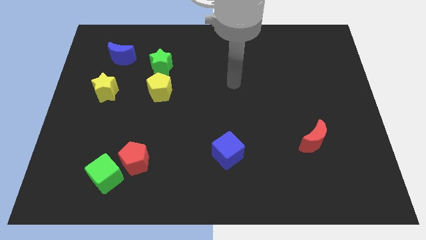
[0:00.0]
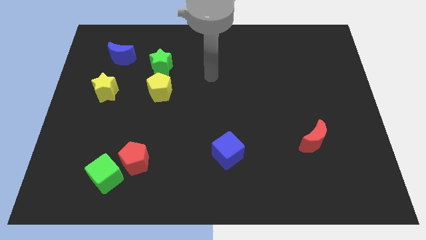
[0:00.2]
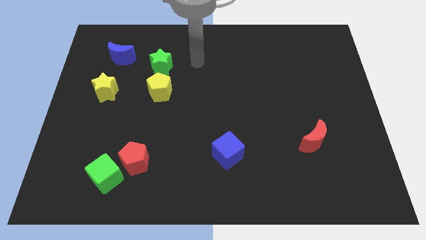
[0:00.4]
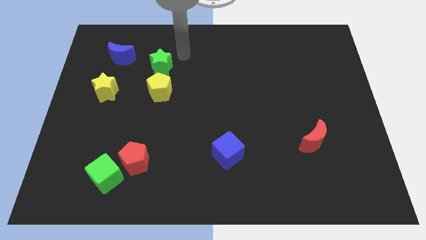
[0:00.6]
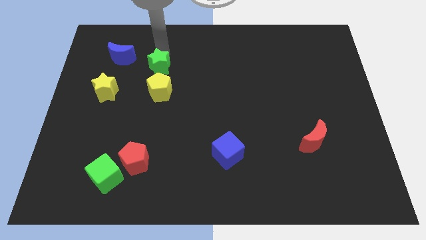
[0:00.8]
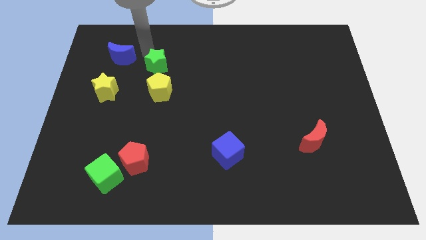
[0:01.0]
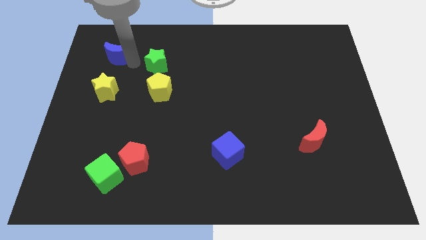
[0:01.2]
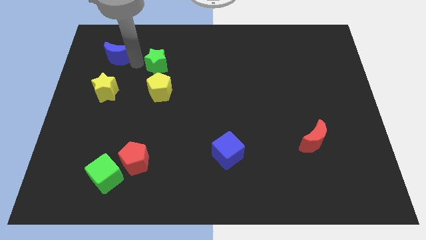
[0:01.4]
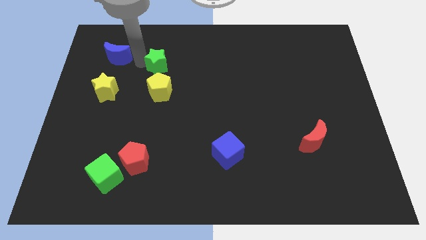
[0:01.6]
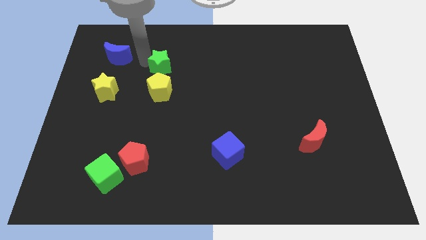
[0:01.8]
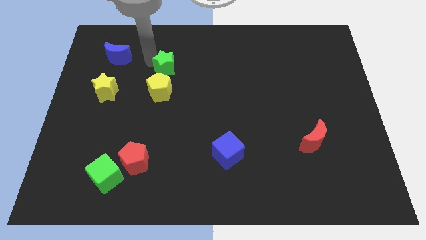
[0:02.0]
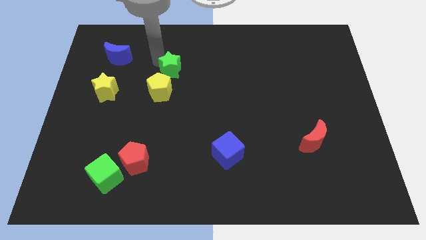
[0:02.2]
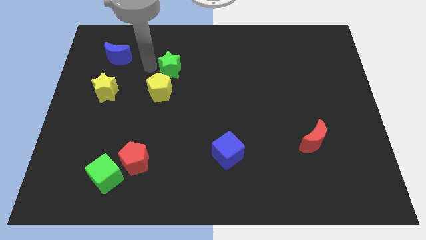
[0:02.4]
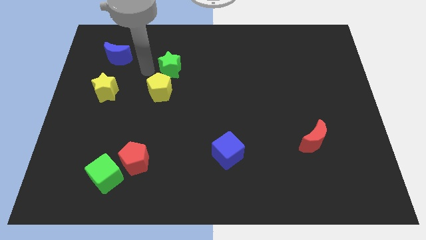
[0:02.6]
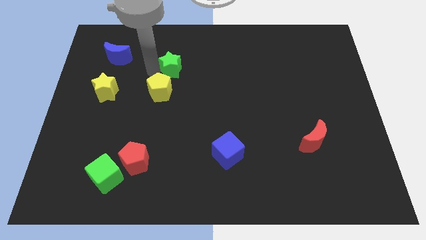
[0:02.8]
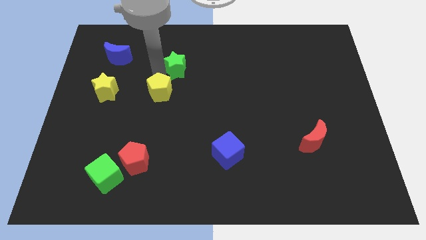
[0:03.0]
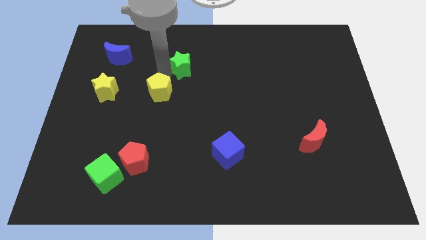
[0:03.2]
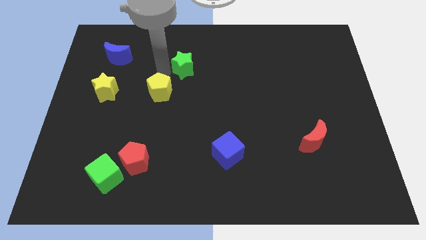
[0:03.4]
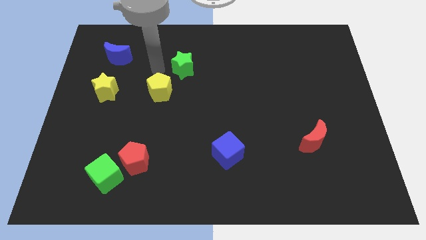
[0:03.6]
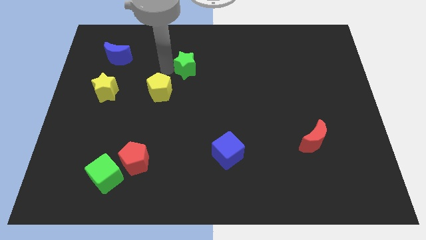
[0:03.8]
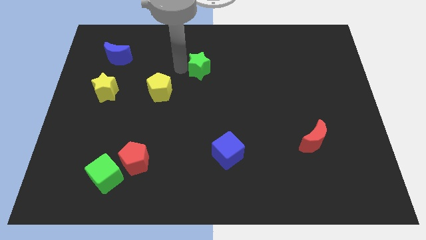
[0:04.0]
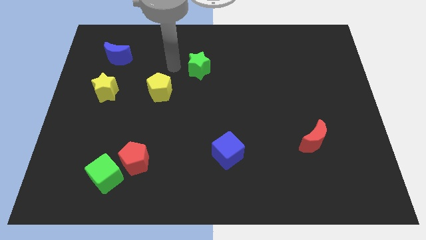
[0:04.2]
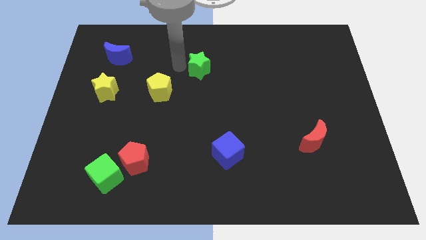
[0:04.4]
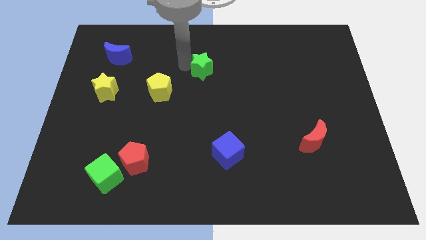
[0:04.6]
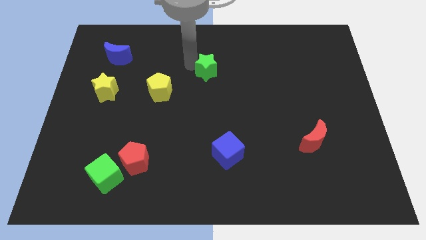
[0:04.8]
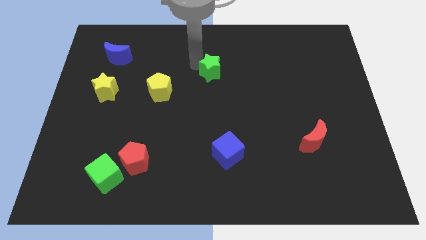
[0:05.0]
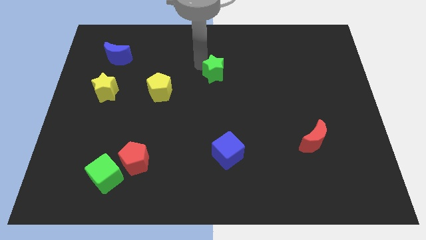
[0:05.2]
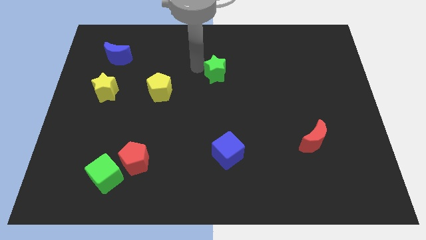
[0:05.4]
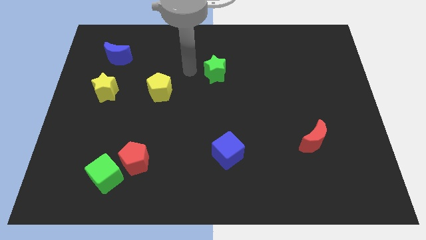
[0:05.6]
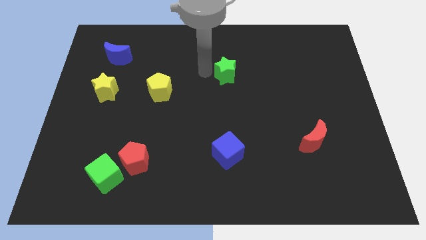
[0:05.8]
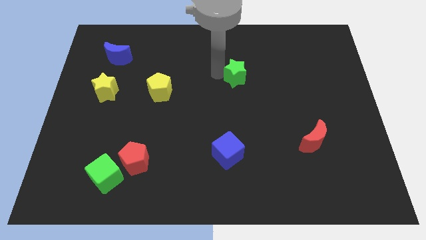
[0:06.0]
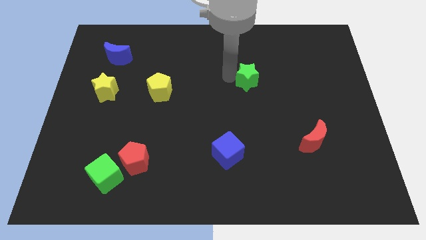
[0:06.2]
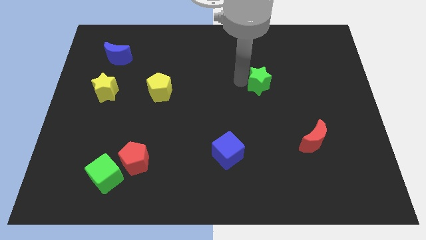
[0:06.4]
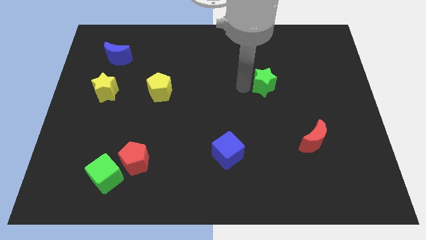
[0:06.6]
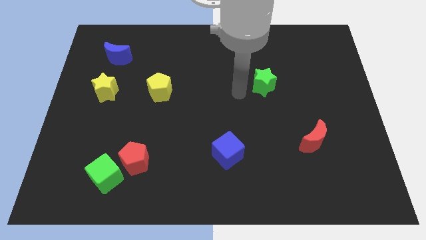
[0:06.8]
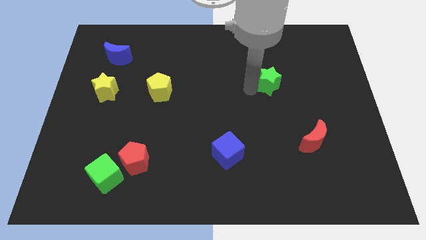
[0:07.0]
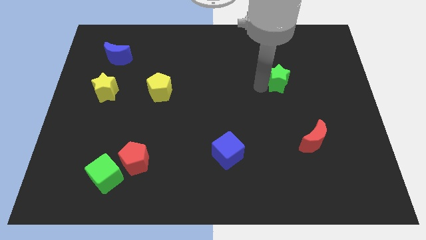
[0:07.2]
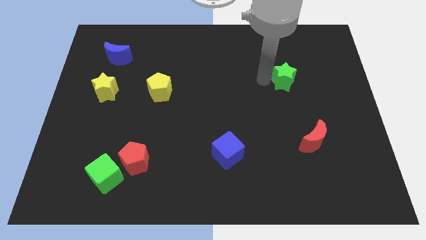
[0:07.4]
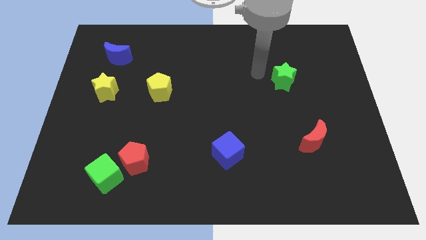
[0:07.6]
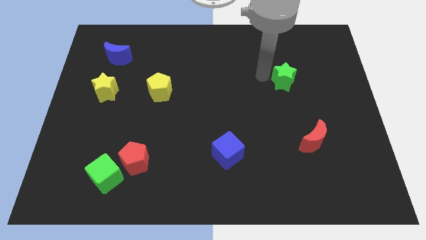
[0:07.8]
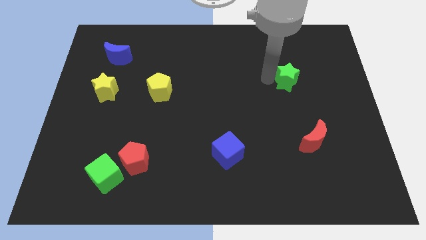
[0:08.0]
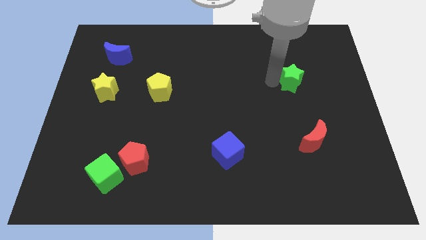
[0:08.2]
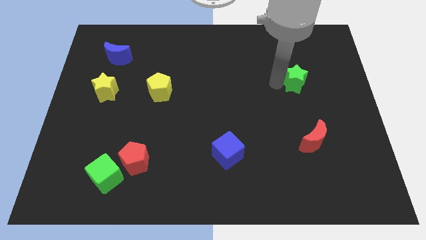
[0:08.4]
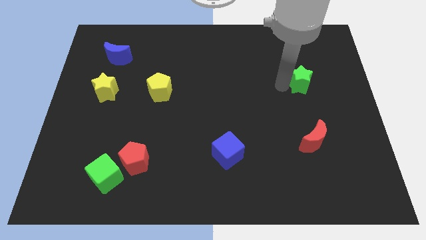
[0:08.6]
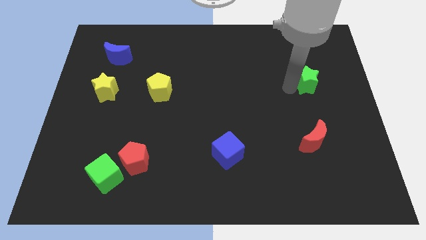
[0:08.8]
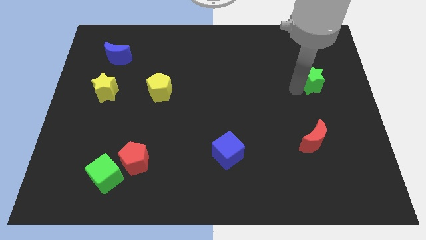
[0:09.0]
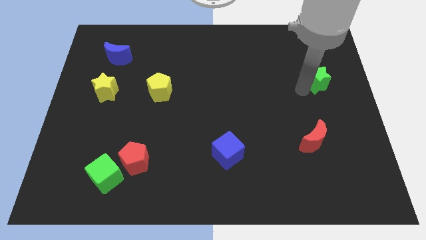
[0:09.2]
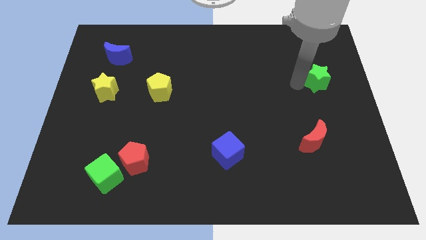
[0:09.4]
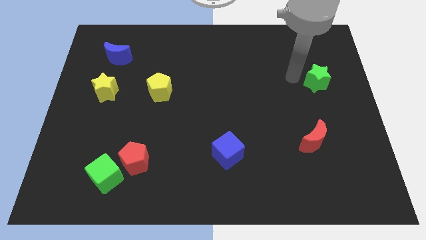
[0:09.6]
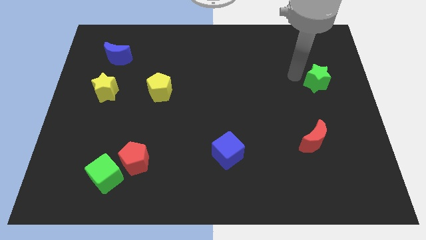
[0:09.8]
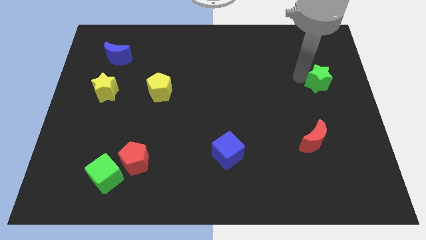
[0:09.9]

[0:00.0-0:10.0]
move the green star to the right side of the board

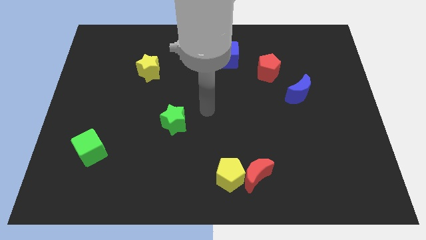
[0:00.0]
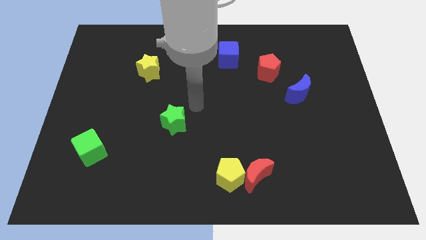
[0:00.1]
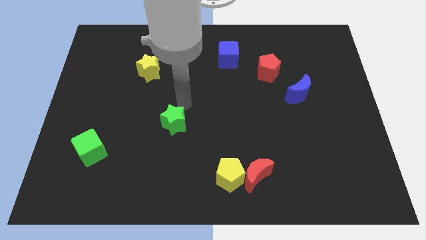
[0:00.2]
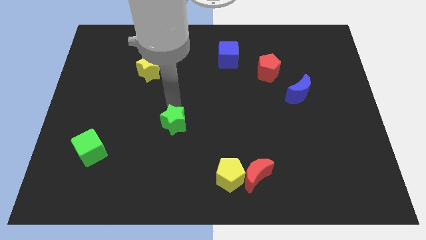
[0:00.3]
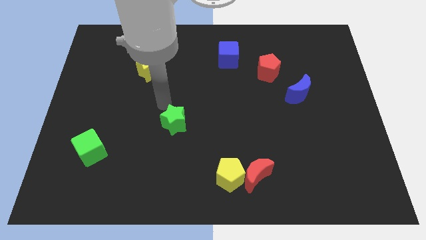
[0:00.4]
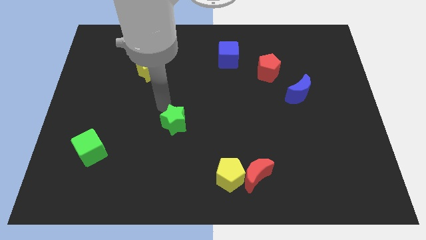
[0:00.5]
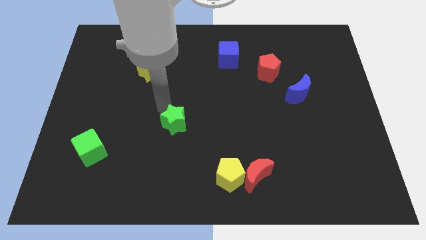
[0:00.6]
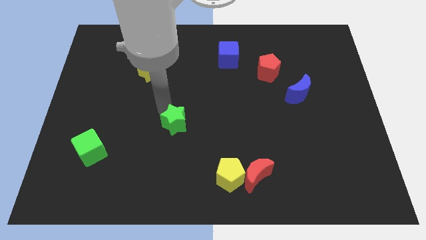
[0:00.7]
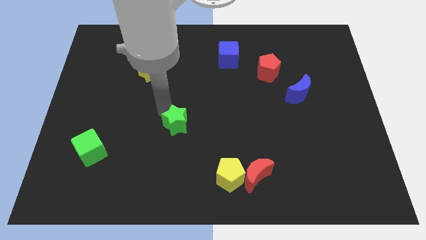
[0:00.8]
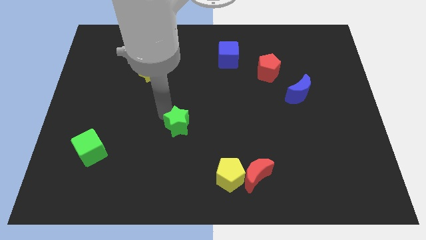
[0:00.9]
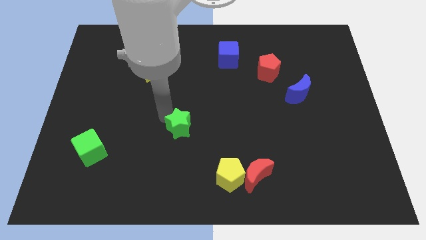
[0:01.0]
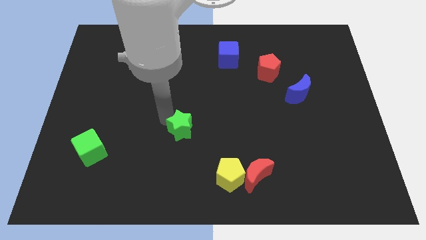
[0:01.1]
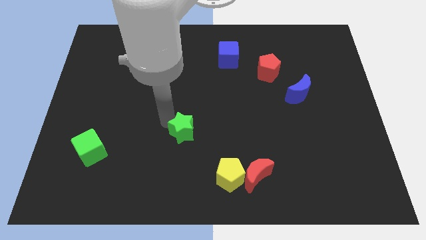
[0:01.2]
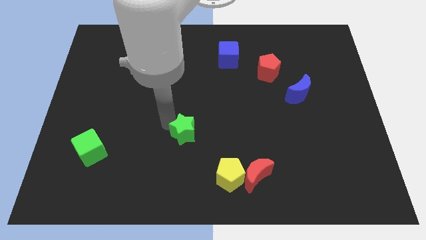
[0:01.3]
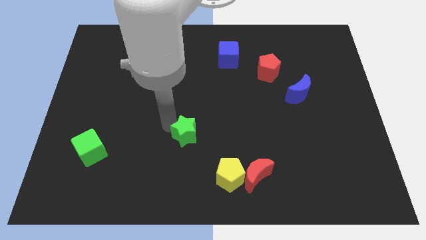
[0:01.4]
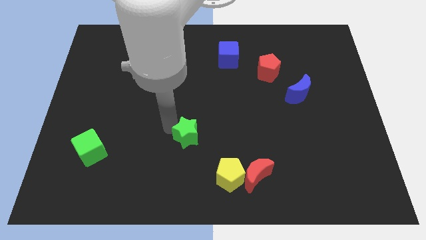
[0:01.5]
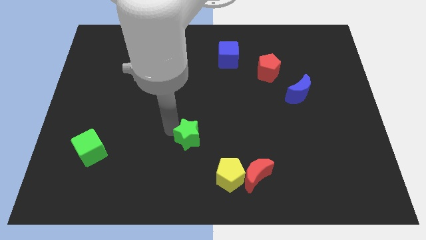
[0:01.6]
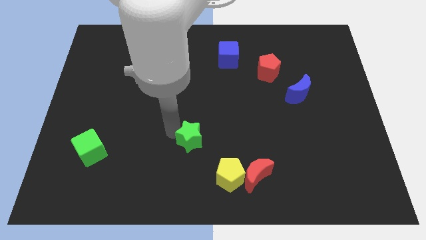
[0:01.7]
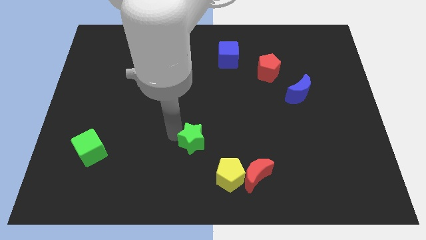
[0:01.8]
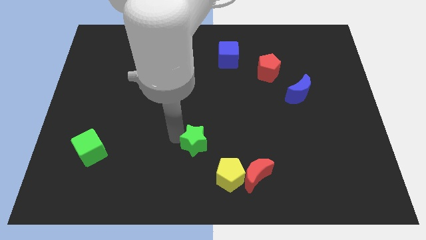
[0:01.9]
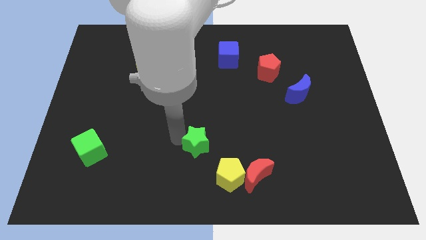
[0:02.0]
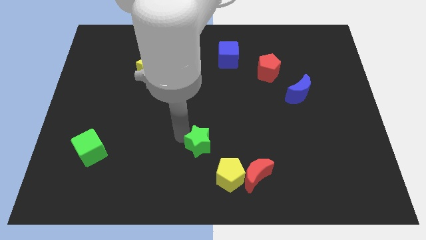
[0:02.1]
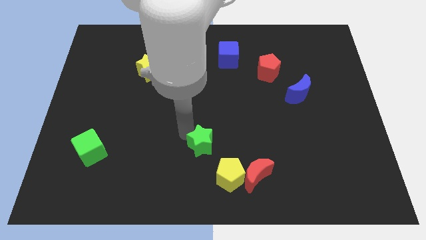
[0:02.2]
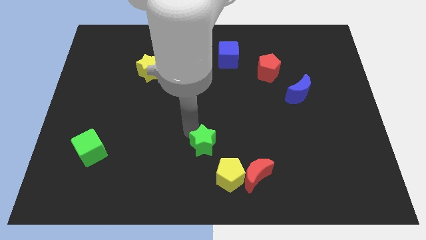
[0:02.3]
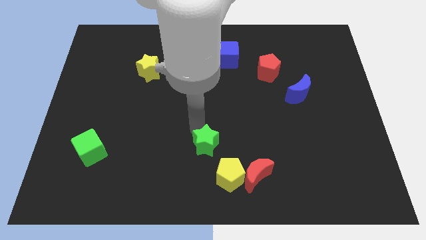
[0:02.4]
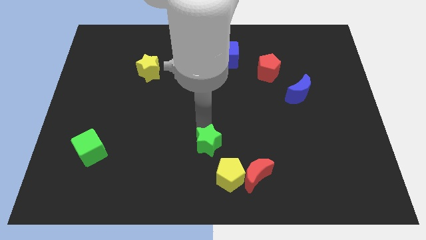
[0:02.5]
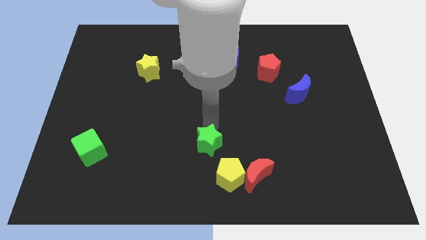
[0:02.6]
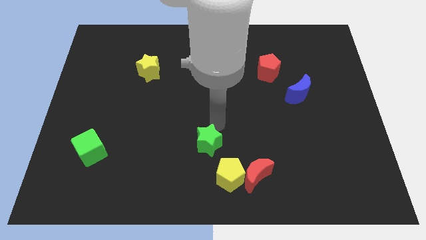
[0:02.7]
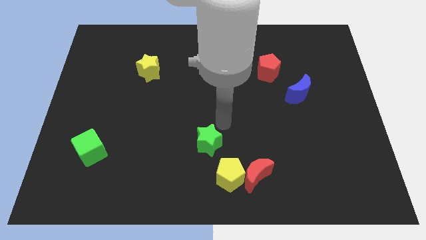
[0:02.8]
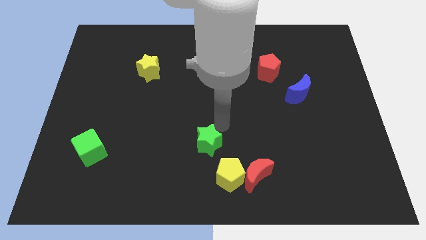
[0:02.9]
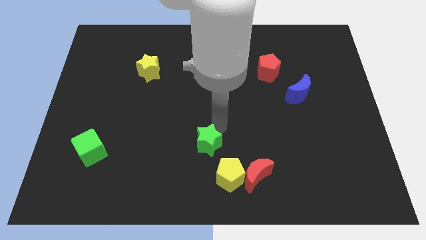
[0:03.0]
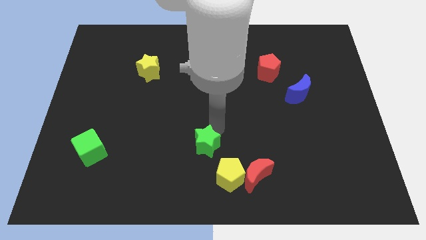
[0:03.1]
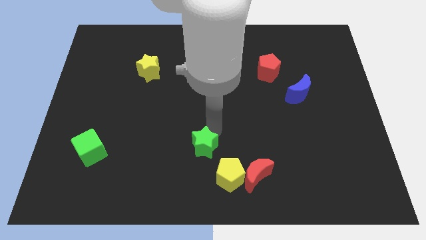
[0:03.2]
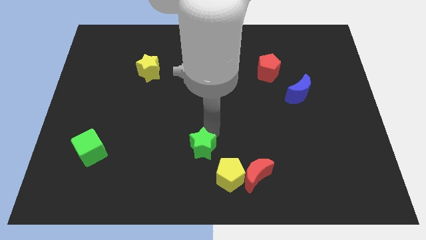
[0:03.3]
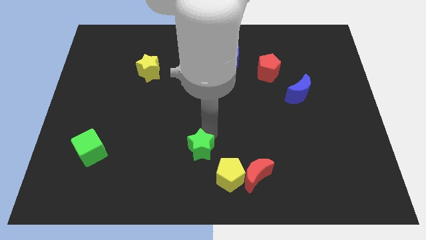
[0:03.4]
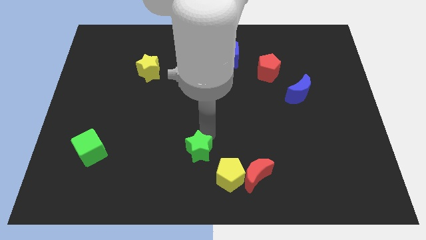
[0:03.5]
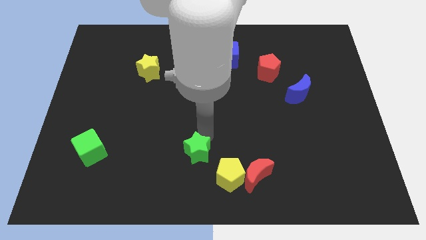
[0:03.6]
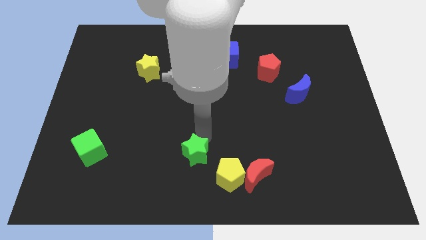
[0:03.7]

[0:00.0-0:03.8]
push the green star to the bottom
